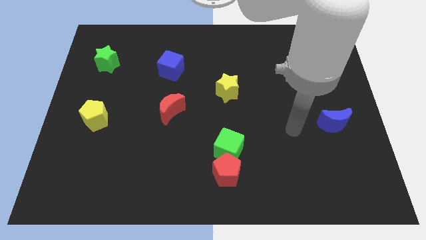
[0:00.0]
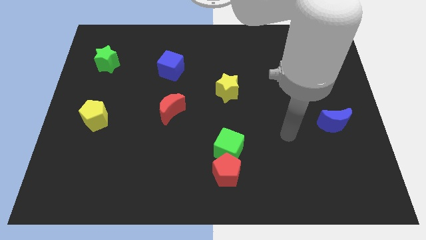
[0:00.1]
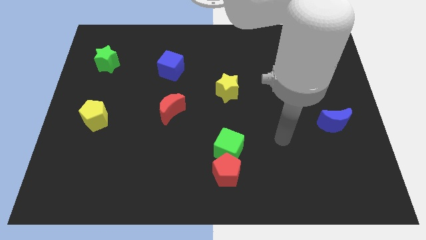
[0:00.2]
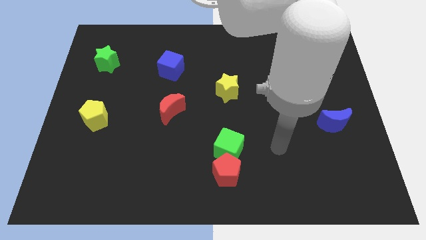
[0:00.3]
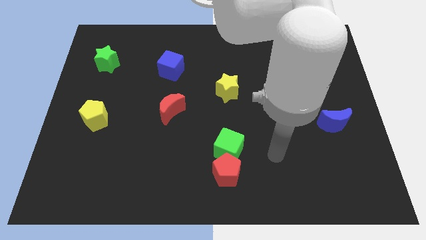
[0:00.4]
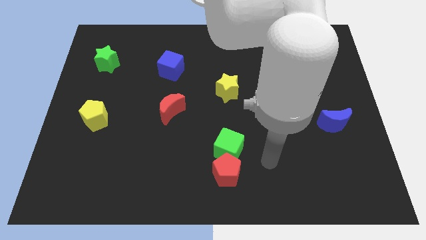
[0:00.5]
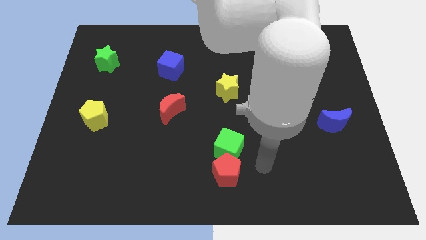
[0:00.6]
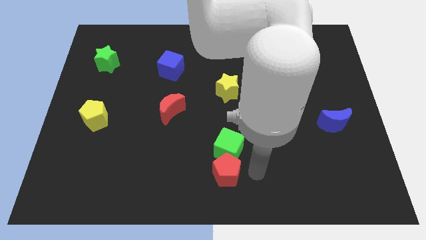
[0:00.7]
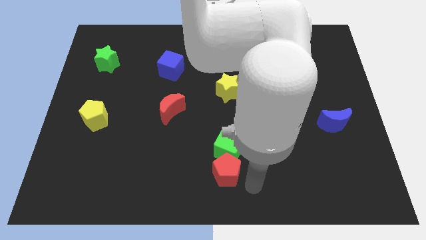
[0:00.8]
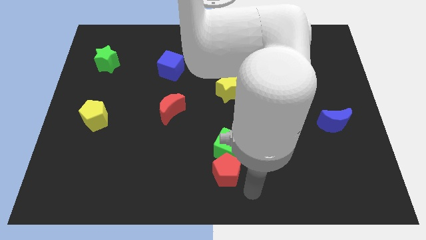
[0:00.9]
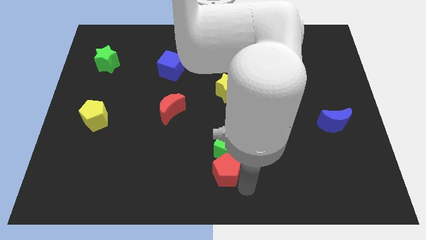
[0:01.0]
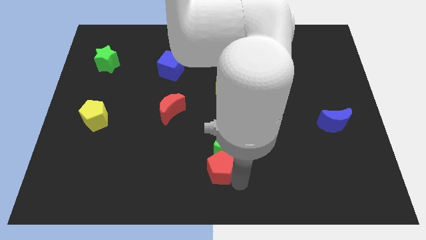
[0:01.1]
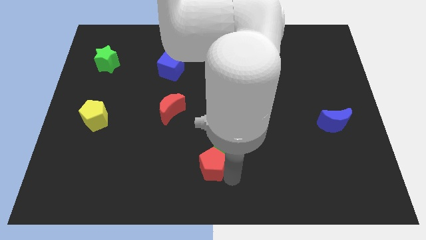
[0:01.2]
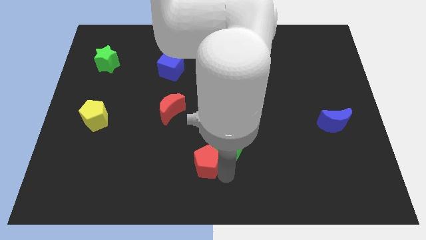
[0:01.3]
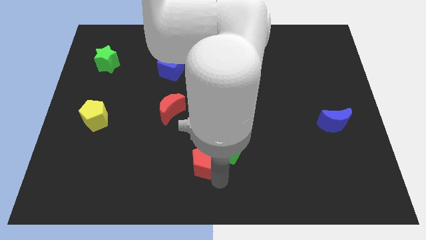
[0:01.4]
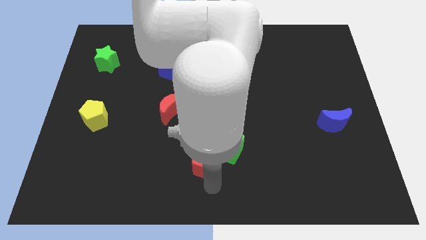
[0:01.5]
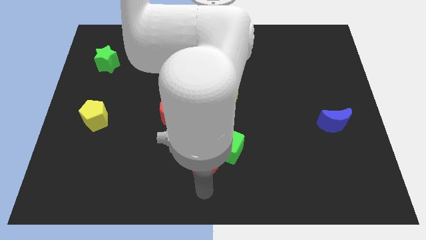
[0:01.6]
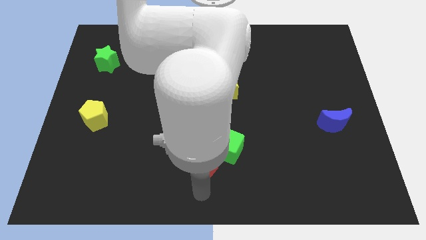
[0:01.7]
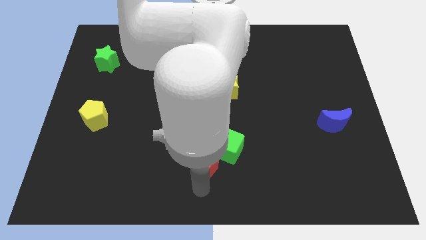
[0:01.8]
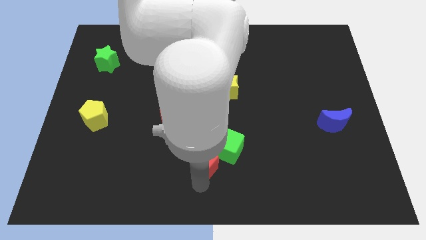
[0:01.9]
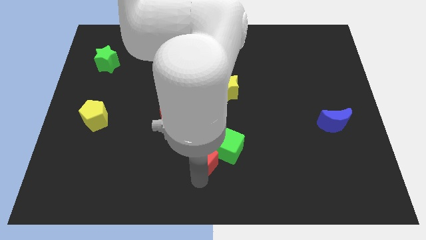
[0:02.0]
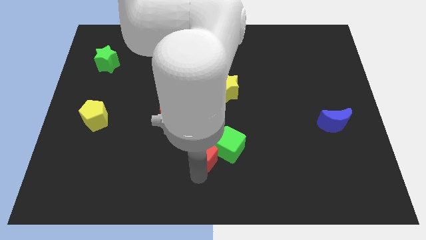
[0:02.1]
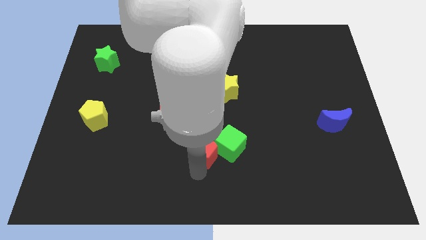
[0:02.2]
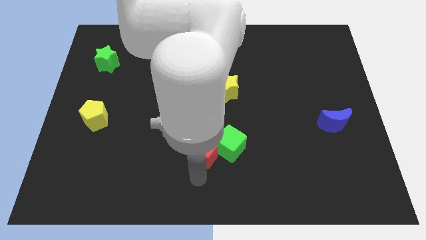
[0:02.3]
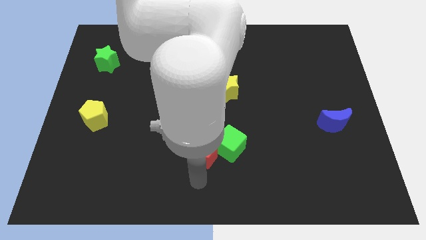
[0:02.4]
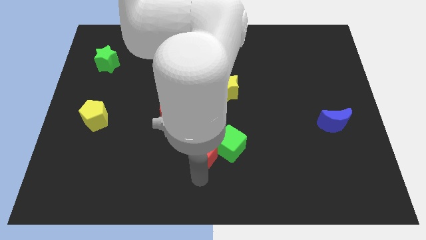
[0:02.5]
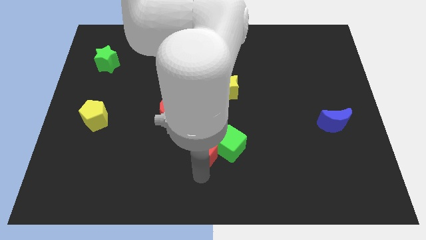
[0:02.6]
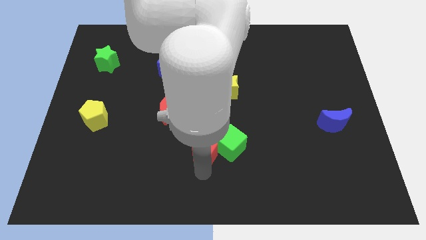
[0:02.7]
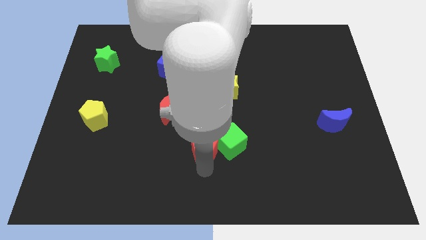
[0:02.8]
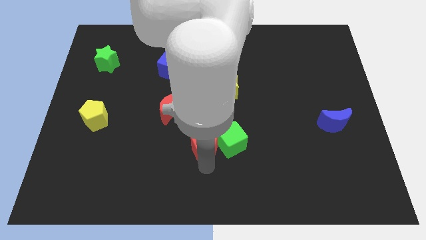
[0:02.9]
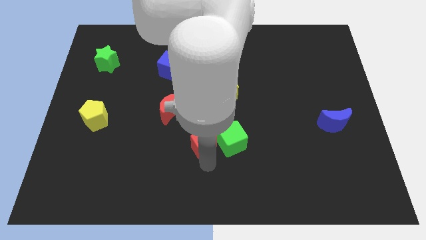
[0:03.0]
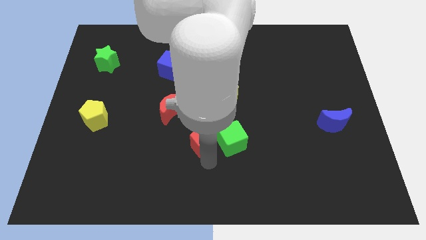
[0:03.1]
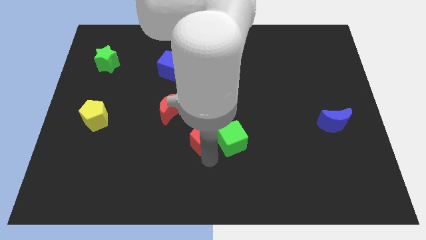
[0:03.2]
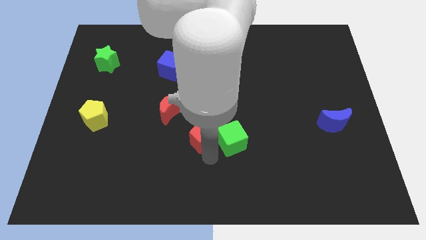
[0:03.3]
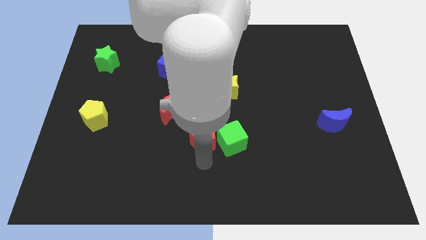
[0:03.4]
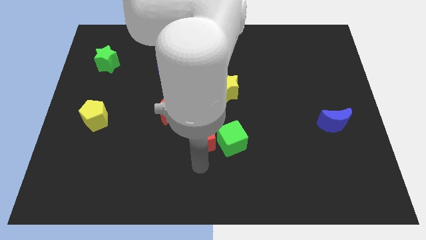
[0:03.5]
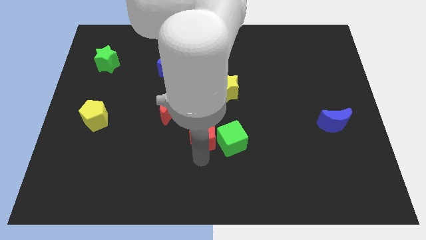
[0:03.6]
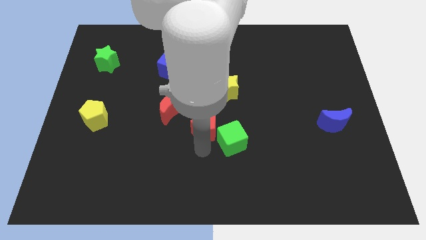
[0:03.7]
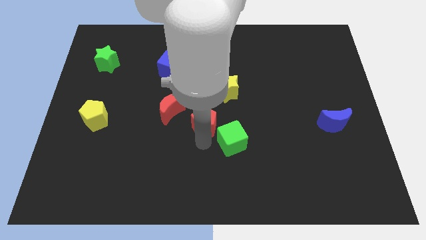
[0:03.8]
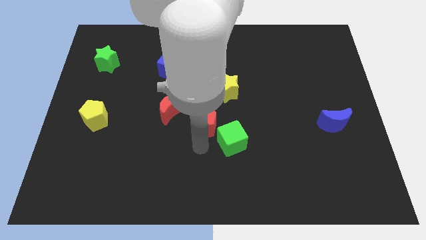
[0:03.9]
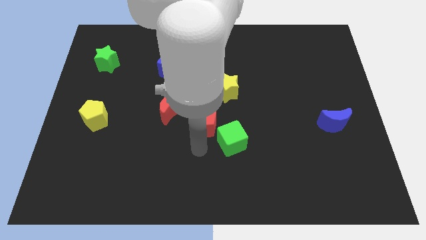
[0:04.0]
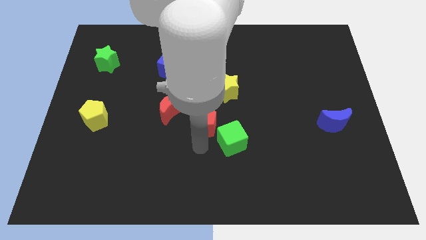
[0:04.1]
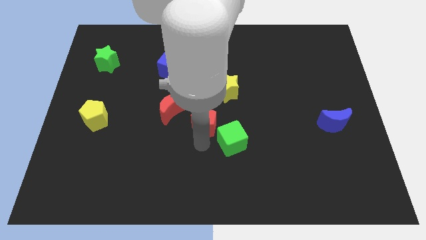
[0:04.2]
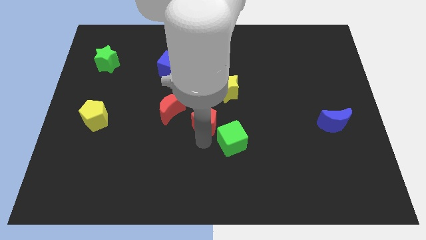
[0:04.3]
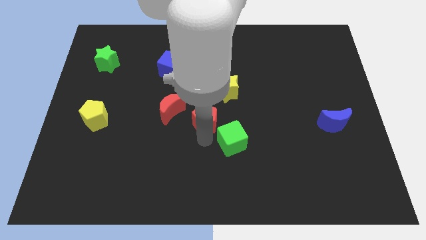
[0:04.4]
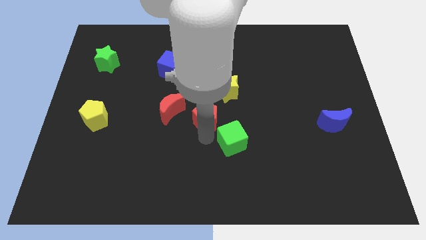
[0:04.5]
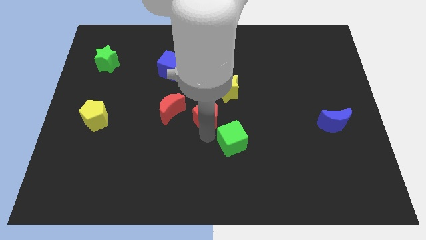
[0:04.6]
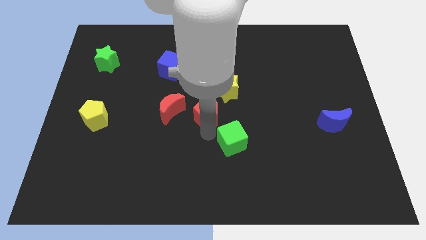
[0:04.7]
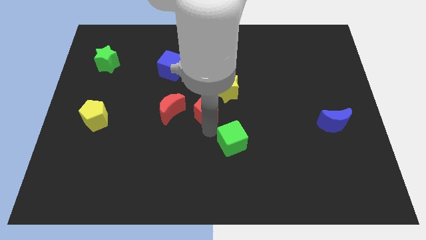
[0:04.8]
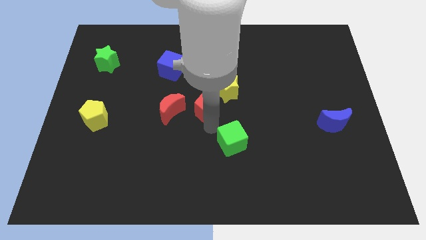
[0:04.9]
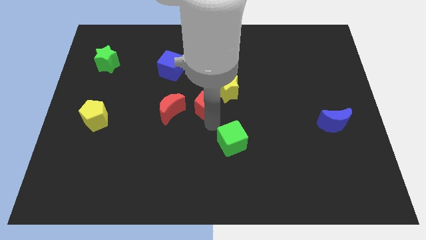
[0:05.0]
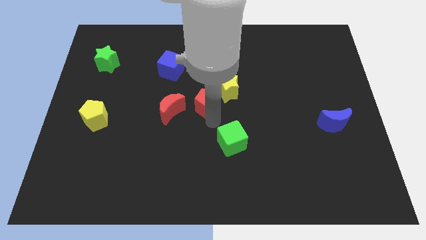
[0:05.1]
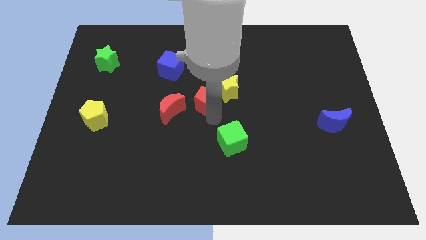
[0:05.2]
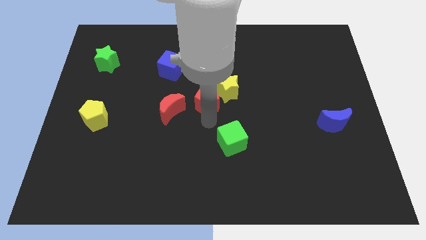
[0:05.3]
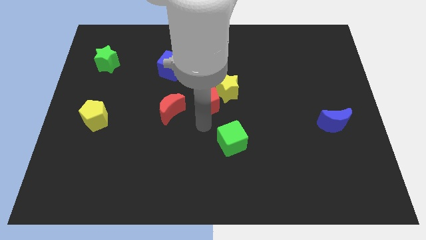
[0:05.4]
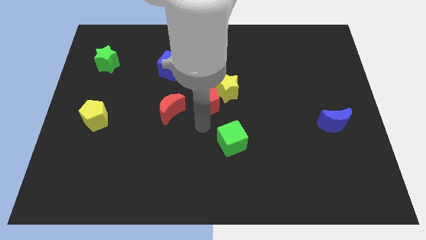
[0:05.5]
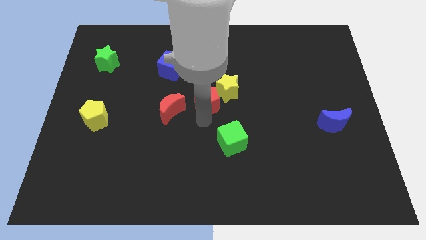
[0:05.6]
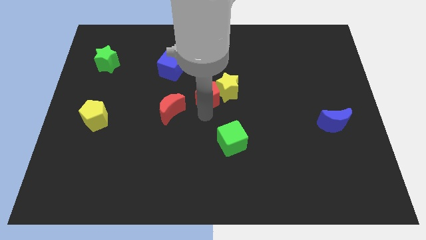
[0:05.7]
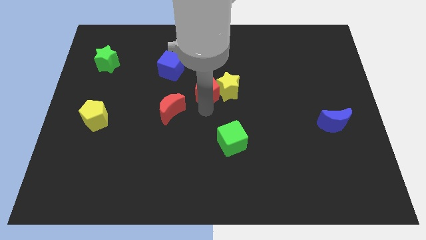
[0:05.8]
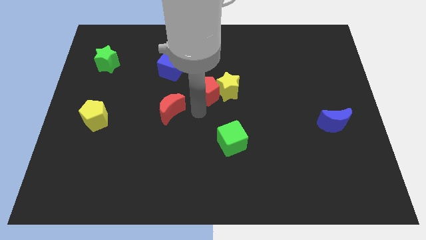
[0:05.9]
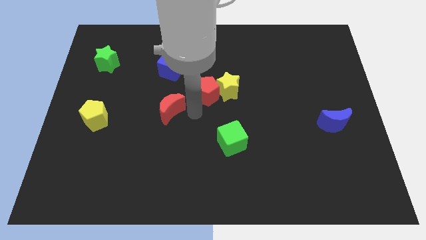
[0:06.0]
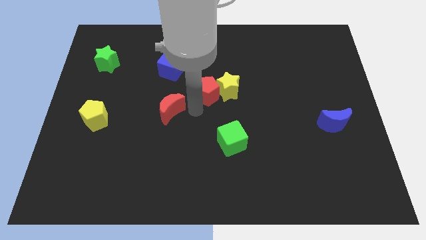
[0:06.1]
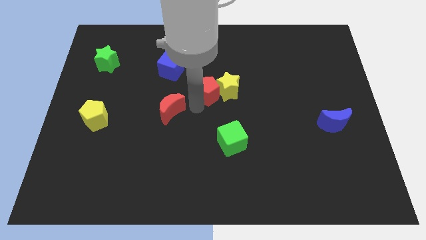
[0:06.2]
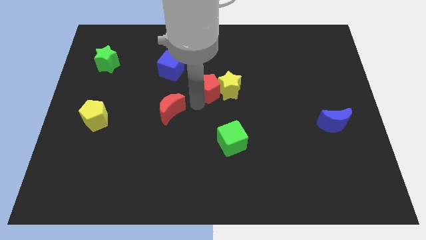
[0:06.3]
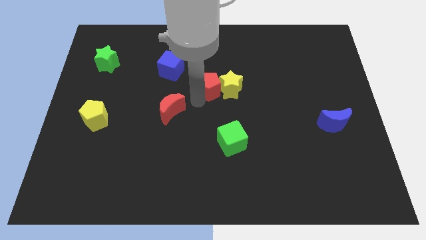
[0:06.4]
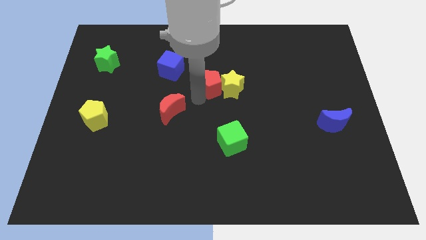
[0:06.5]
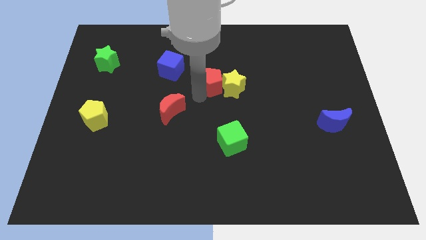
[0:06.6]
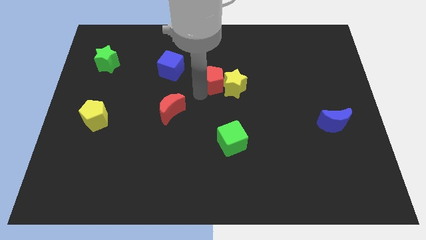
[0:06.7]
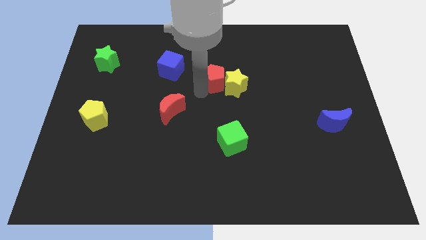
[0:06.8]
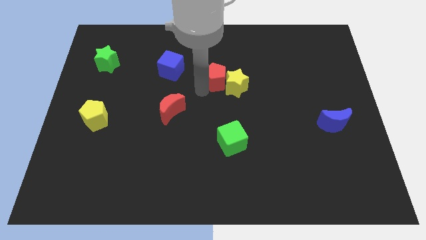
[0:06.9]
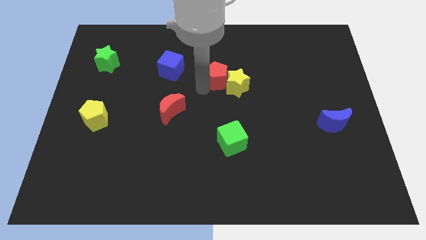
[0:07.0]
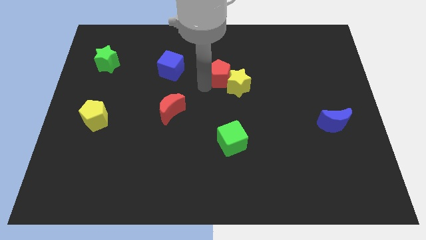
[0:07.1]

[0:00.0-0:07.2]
push the red pentagon to the top side of the yellow star

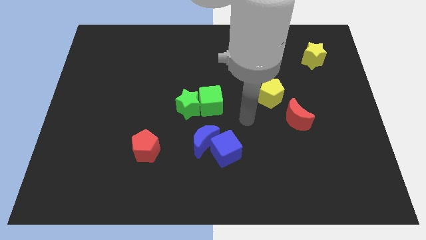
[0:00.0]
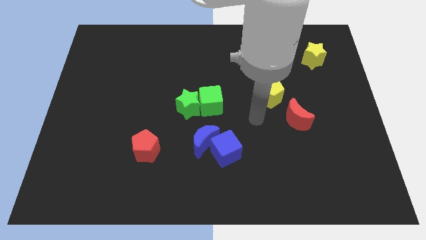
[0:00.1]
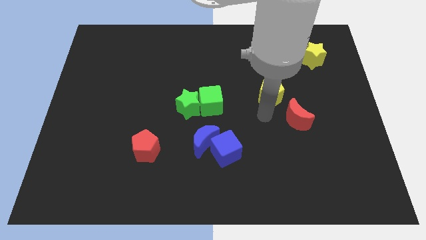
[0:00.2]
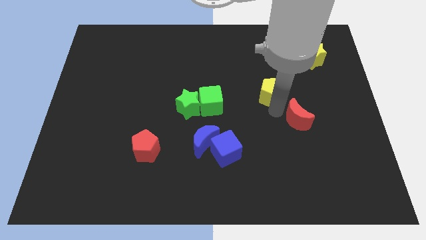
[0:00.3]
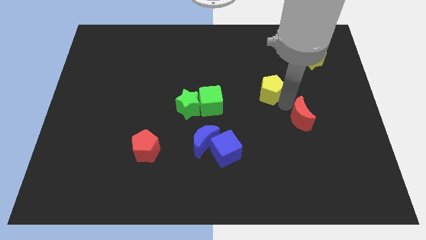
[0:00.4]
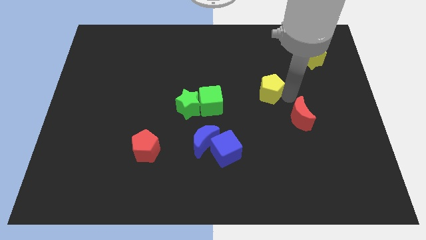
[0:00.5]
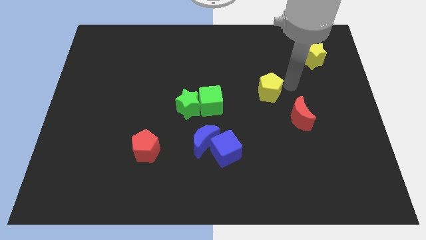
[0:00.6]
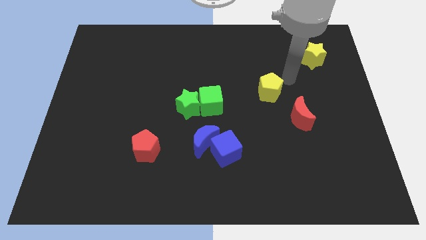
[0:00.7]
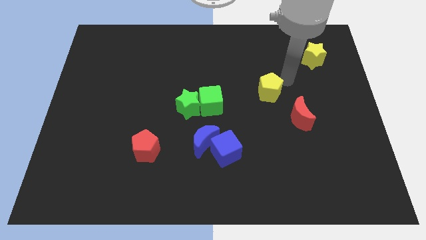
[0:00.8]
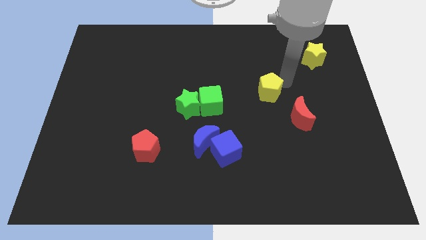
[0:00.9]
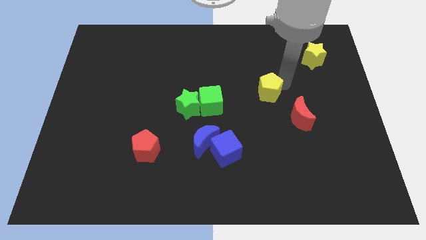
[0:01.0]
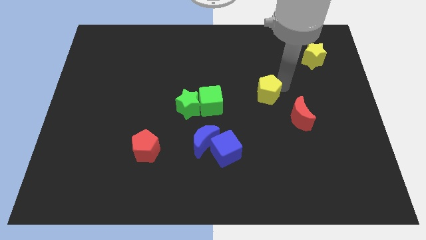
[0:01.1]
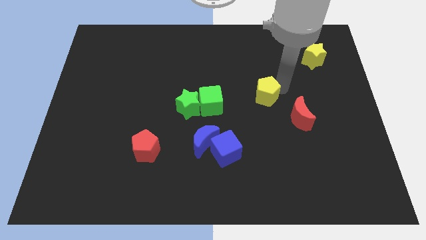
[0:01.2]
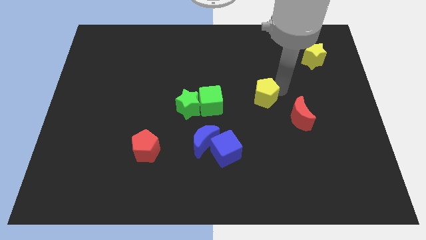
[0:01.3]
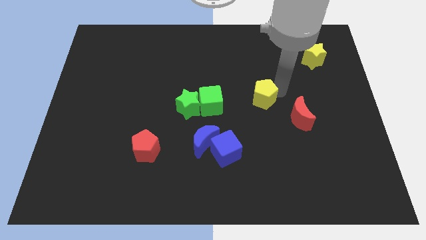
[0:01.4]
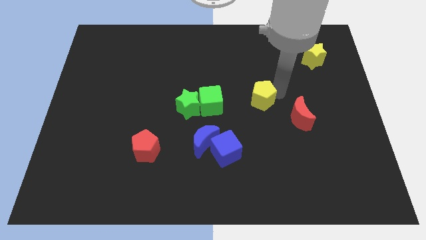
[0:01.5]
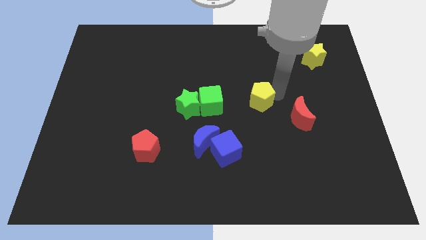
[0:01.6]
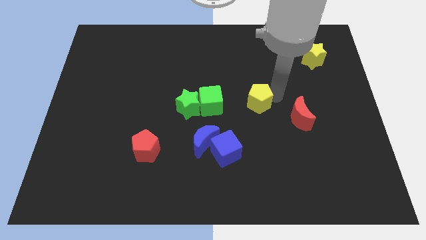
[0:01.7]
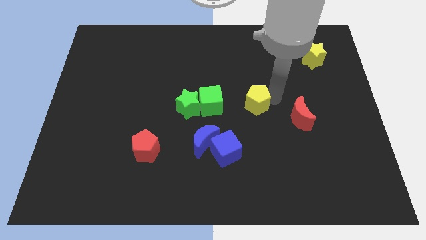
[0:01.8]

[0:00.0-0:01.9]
slide the yellow pentagon to the right side of the green star
